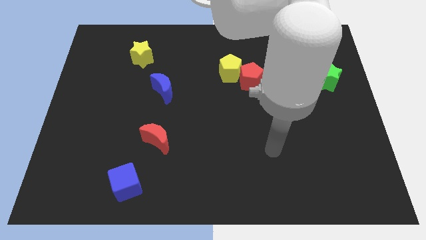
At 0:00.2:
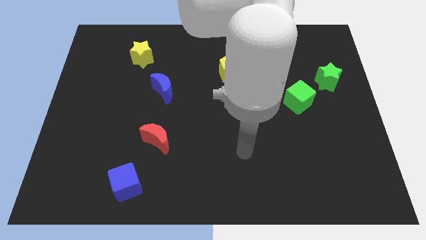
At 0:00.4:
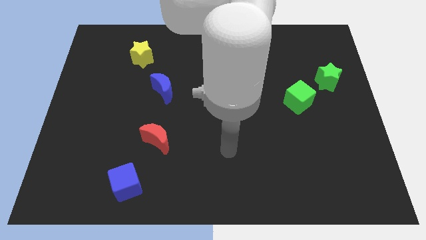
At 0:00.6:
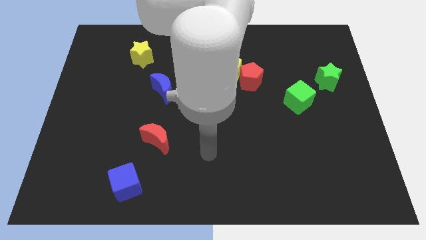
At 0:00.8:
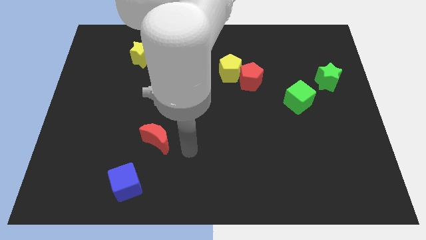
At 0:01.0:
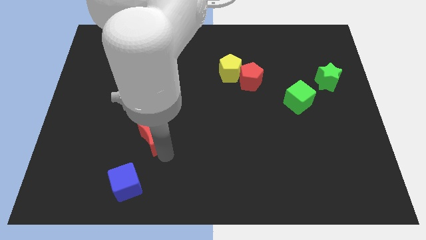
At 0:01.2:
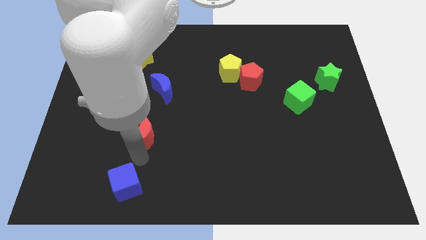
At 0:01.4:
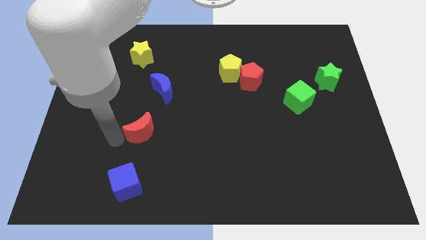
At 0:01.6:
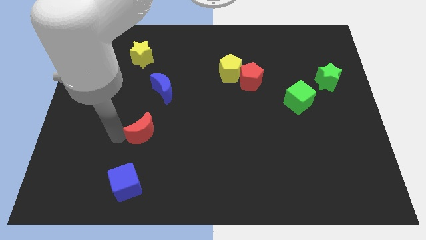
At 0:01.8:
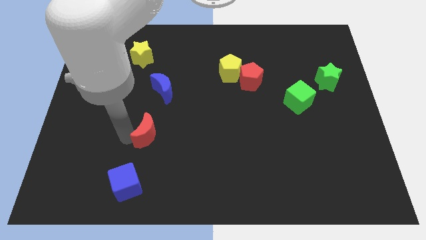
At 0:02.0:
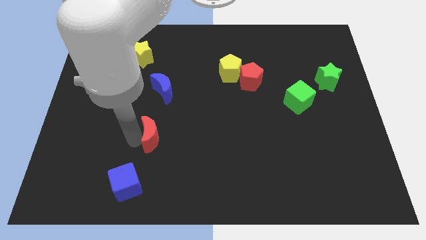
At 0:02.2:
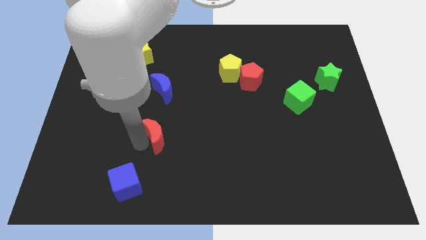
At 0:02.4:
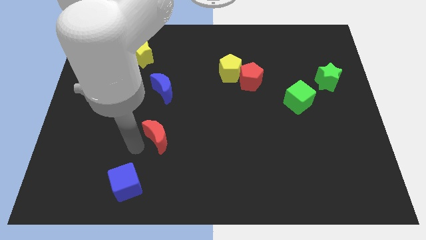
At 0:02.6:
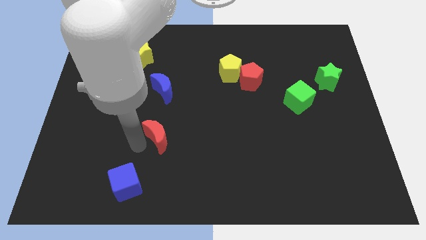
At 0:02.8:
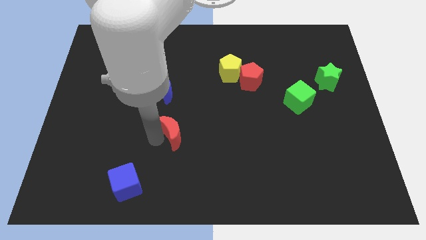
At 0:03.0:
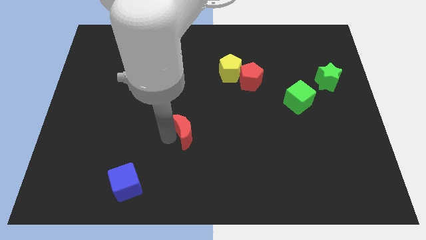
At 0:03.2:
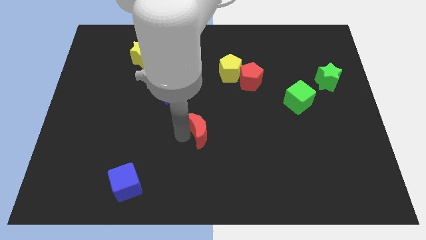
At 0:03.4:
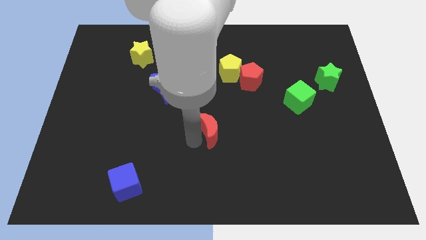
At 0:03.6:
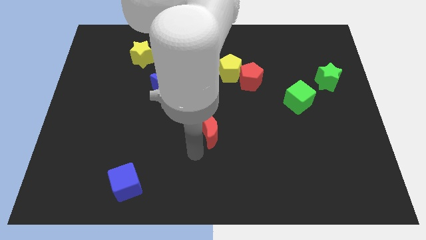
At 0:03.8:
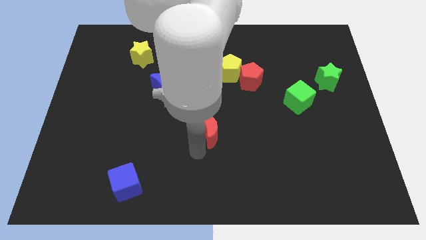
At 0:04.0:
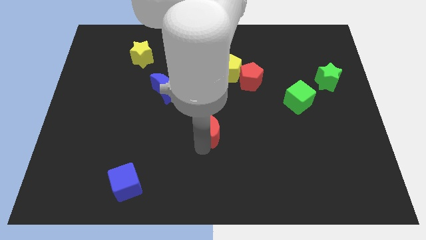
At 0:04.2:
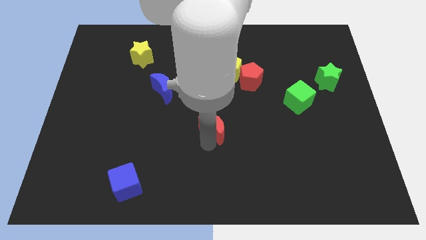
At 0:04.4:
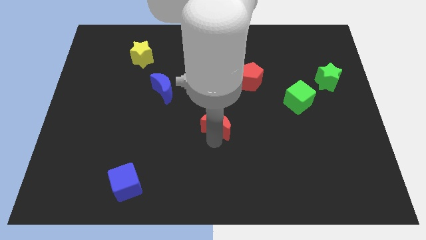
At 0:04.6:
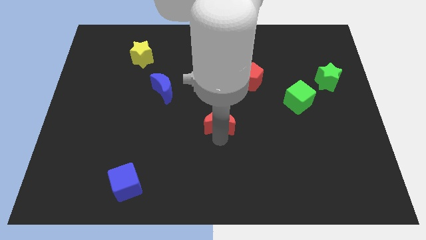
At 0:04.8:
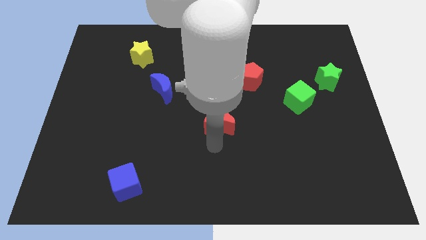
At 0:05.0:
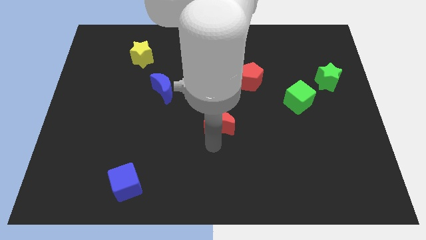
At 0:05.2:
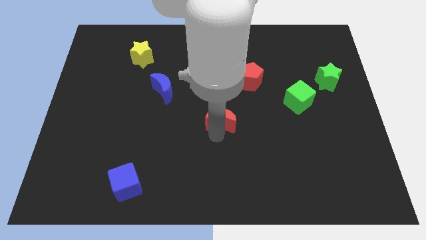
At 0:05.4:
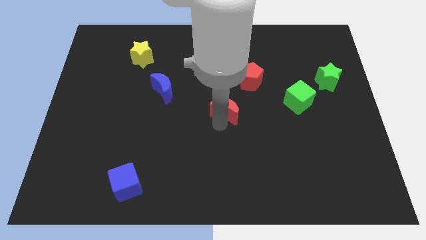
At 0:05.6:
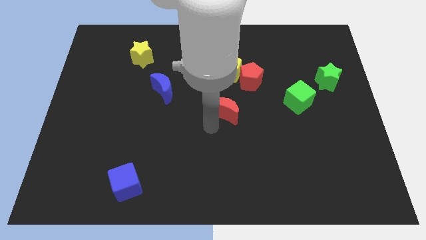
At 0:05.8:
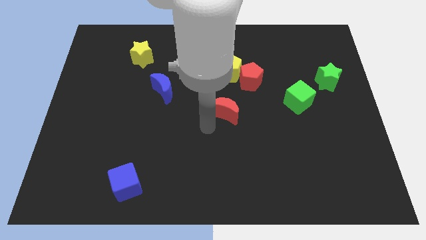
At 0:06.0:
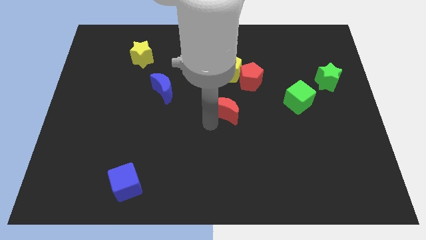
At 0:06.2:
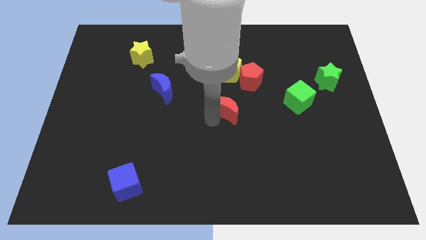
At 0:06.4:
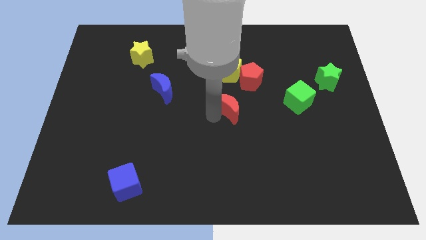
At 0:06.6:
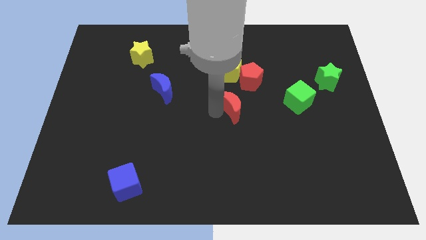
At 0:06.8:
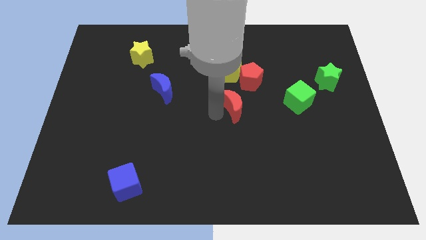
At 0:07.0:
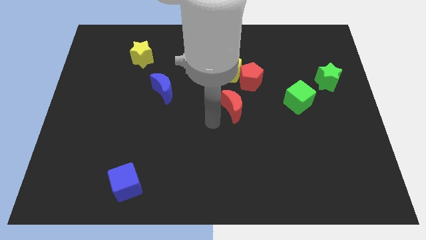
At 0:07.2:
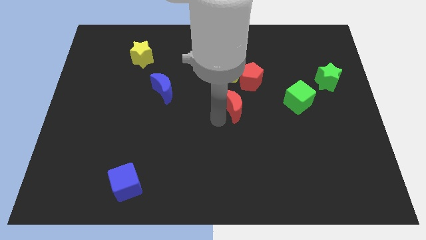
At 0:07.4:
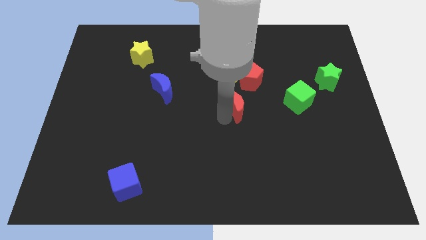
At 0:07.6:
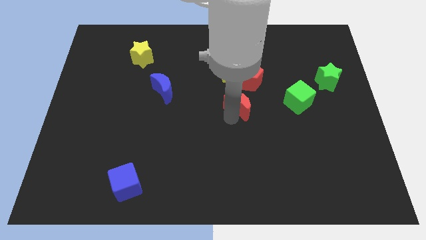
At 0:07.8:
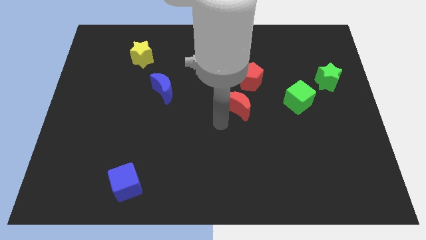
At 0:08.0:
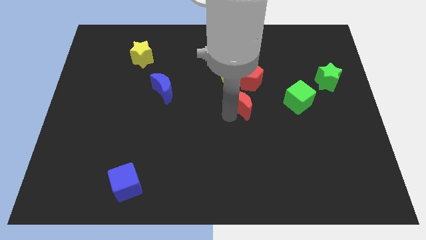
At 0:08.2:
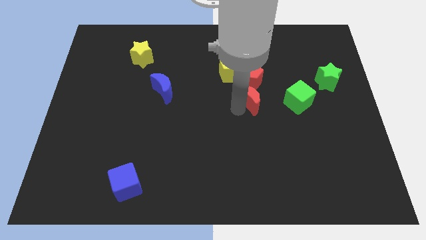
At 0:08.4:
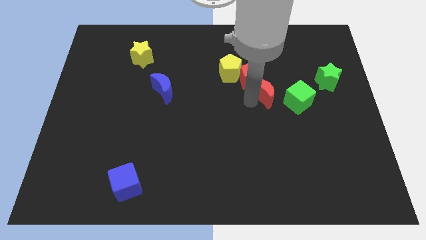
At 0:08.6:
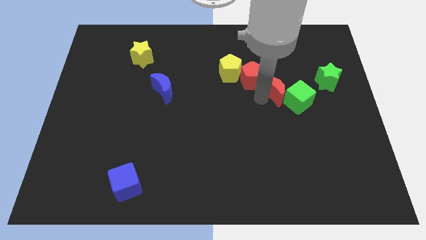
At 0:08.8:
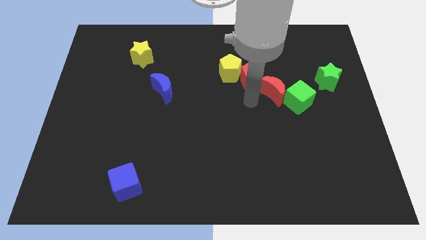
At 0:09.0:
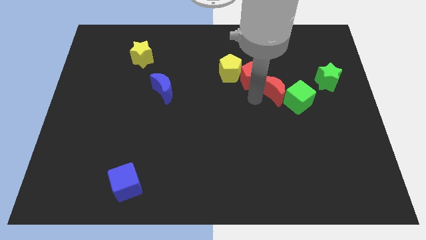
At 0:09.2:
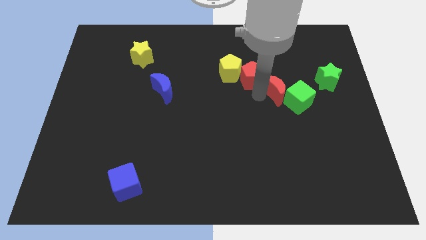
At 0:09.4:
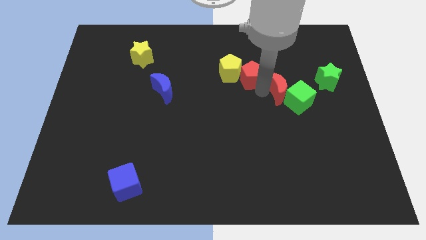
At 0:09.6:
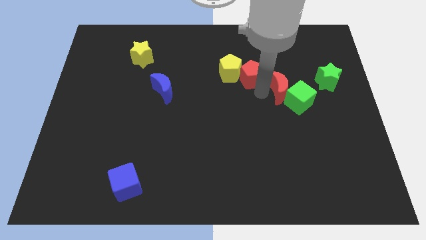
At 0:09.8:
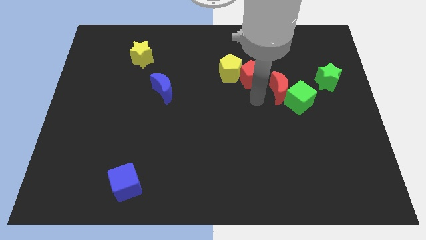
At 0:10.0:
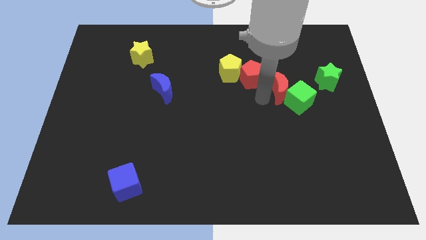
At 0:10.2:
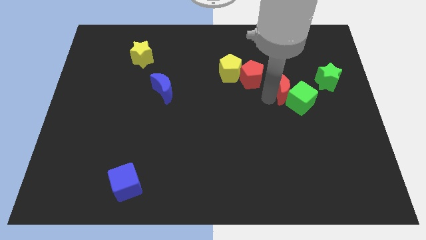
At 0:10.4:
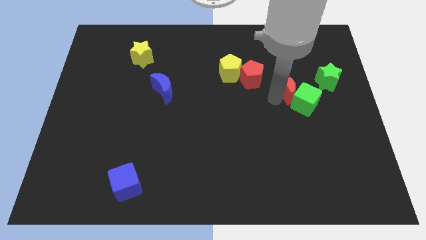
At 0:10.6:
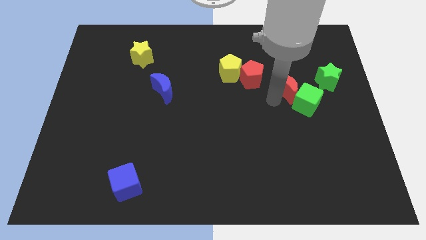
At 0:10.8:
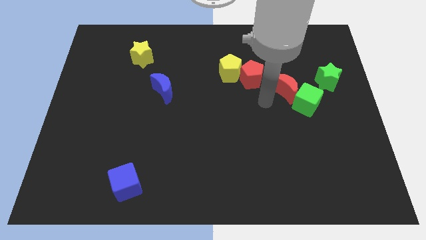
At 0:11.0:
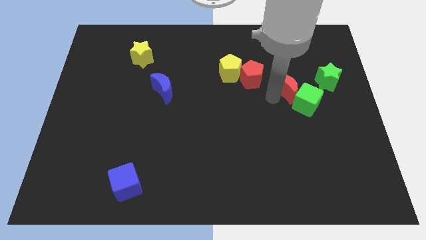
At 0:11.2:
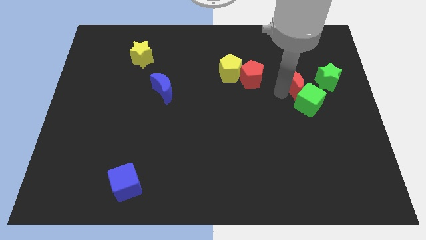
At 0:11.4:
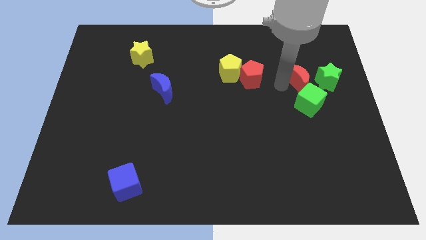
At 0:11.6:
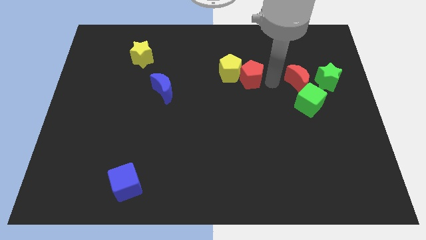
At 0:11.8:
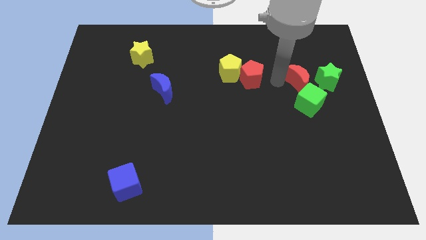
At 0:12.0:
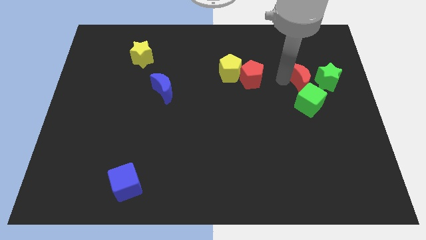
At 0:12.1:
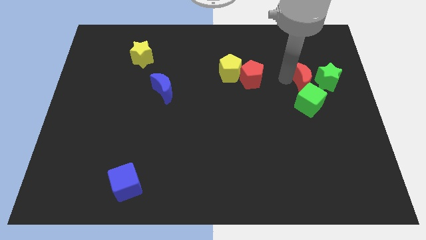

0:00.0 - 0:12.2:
slide the red moon to the green star

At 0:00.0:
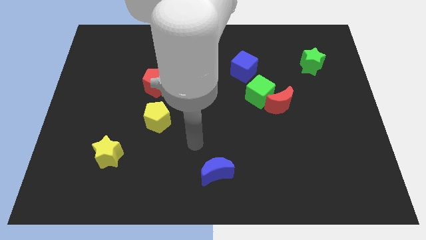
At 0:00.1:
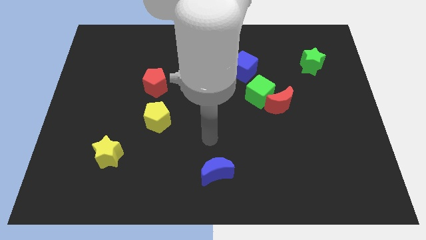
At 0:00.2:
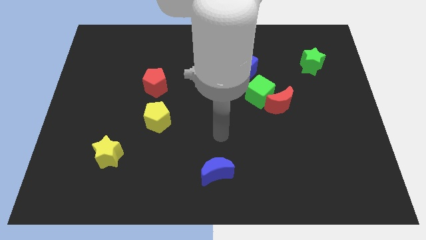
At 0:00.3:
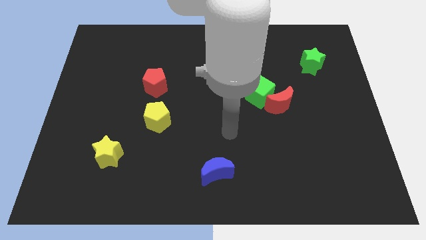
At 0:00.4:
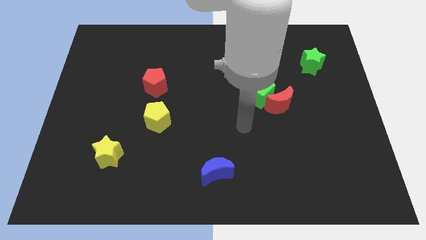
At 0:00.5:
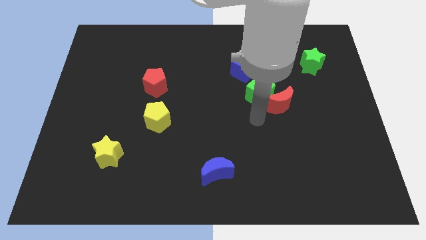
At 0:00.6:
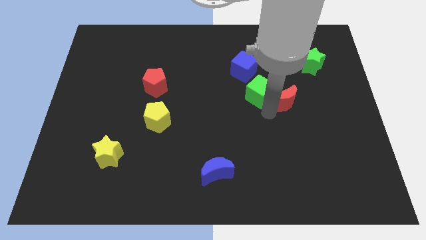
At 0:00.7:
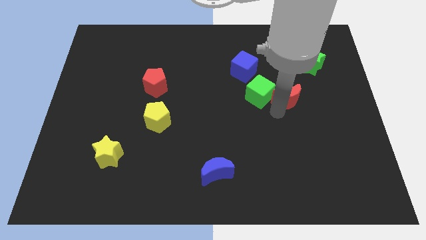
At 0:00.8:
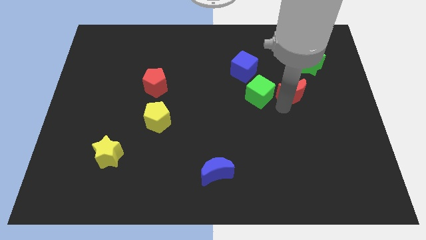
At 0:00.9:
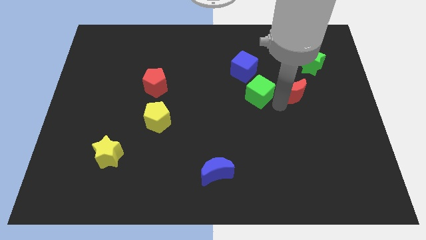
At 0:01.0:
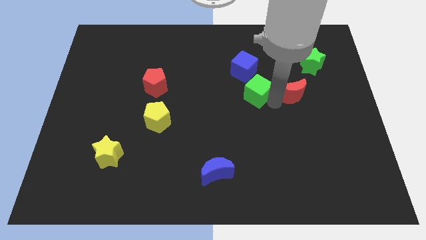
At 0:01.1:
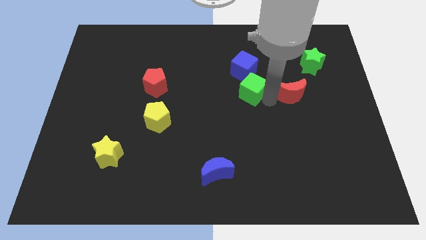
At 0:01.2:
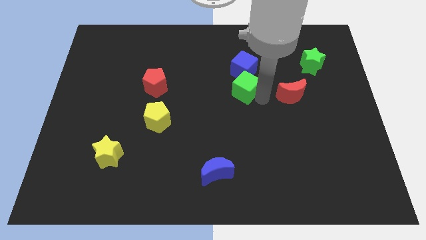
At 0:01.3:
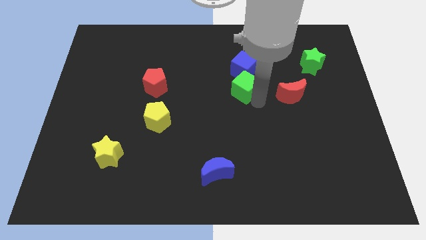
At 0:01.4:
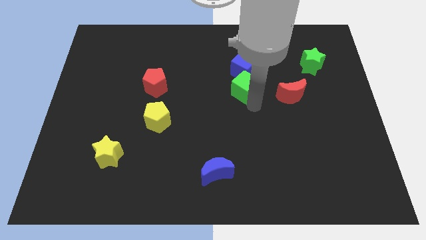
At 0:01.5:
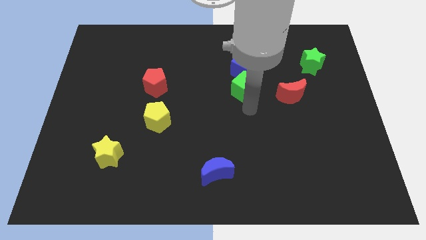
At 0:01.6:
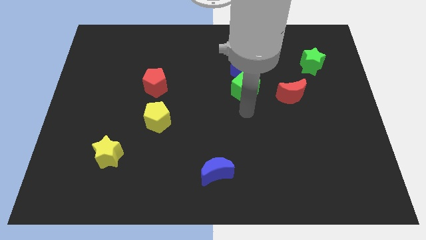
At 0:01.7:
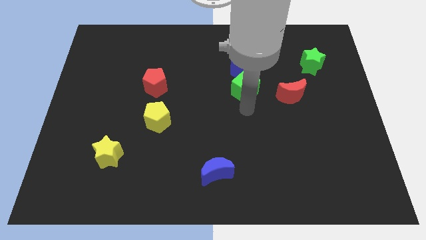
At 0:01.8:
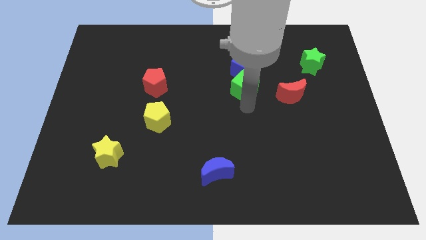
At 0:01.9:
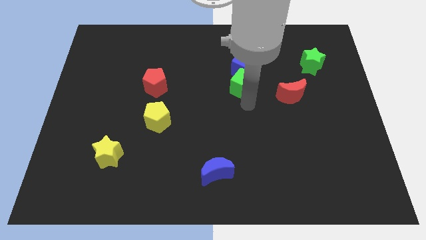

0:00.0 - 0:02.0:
push the green cube next to the blue cube
